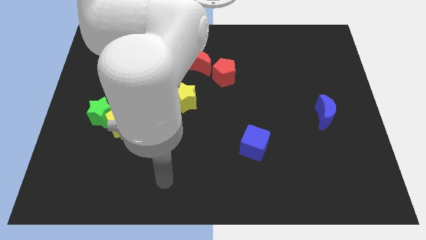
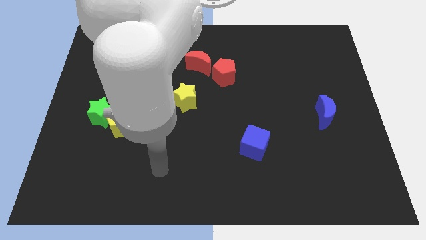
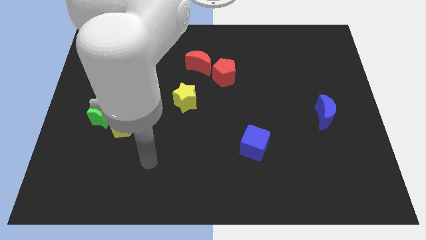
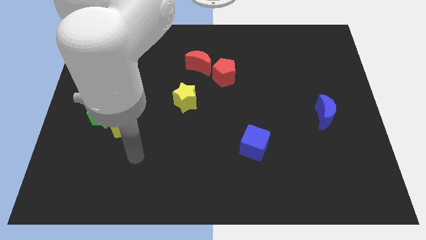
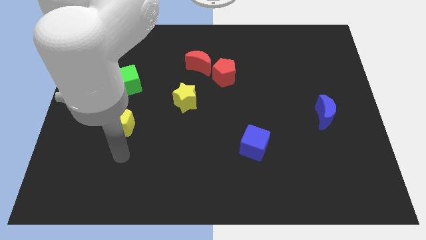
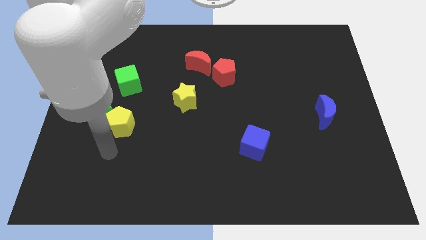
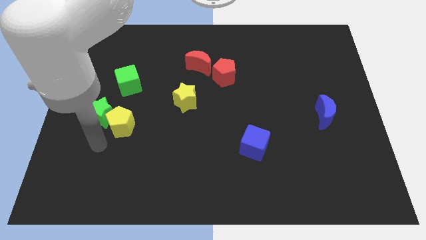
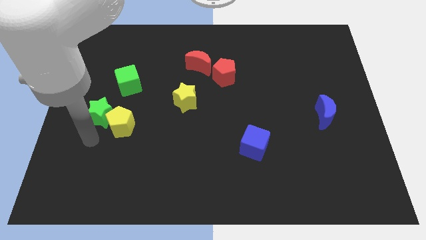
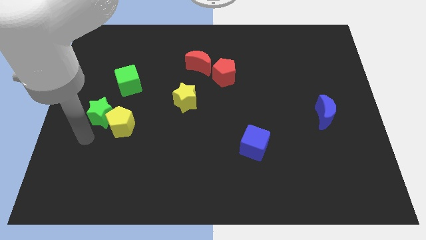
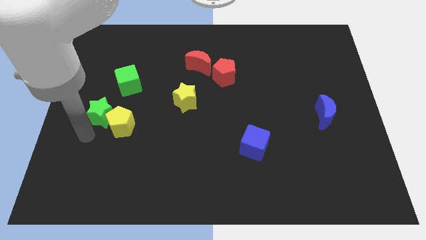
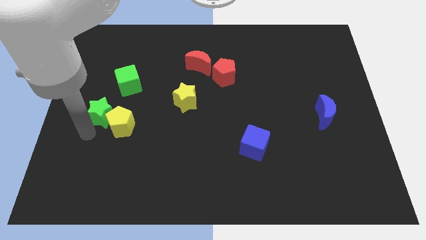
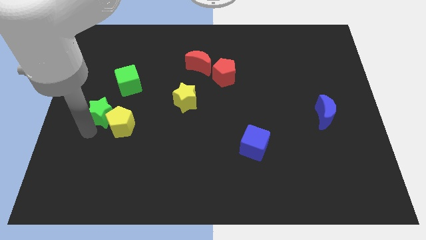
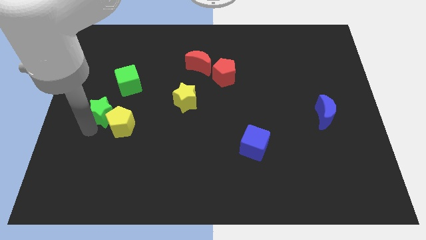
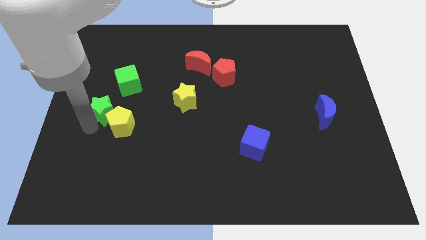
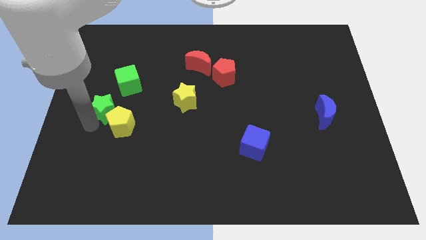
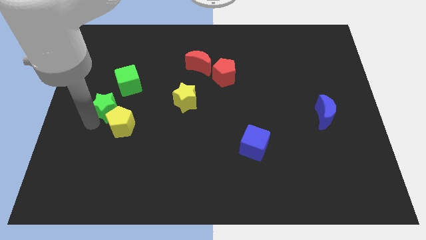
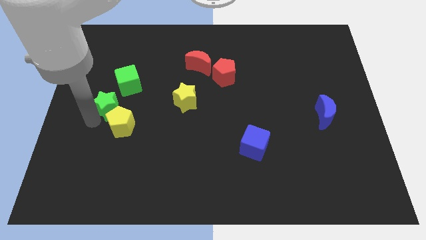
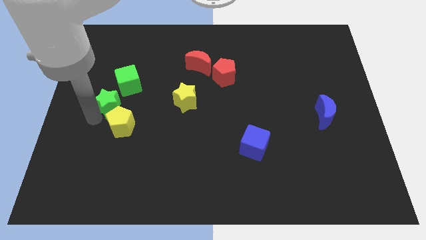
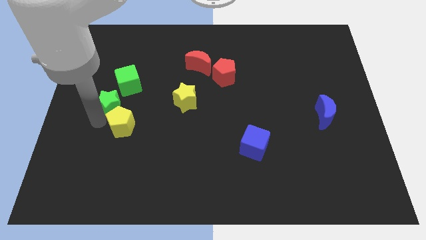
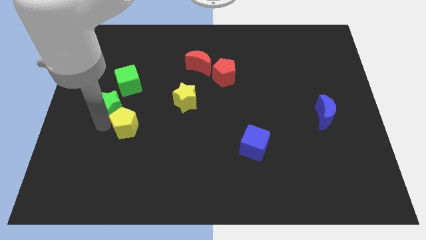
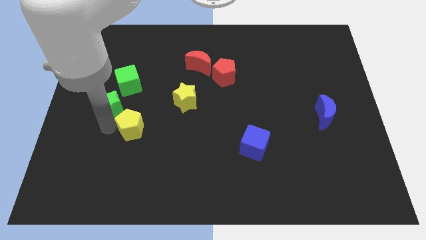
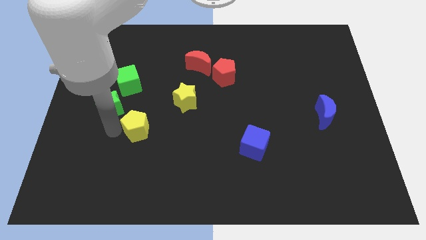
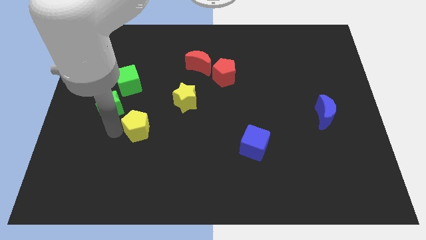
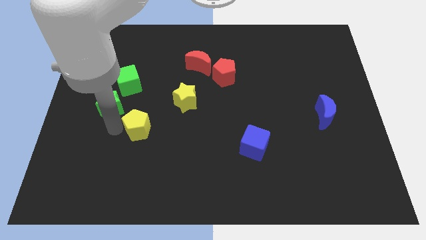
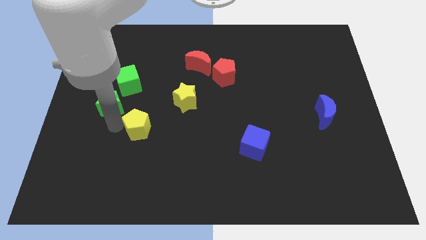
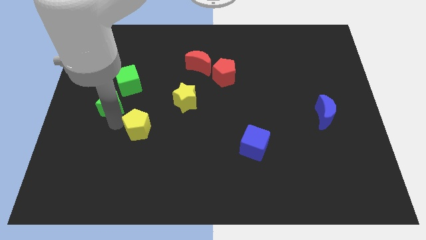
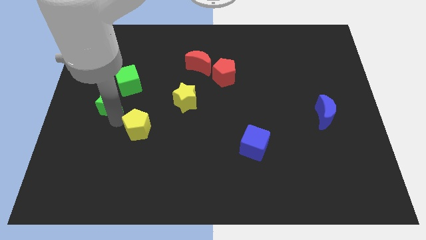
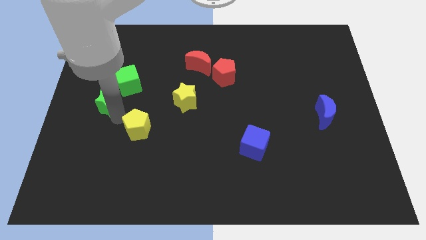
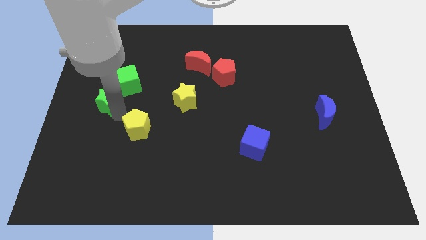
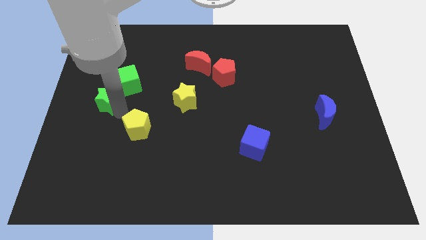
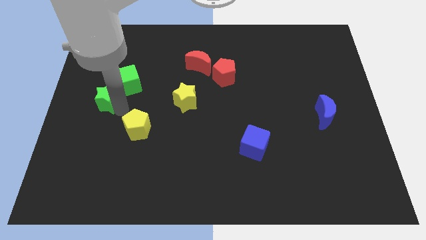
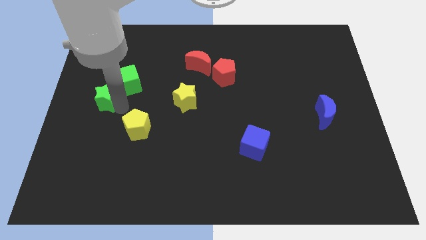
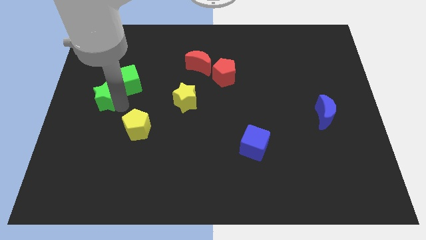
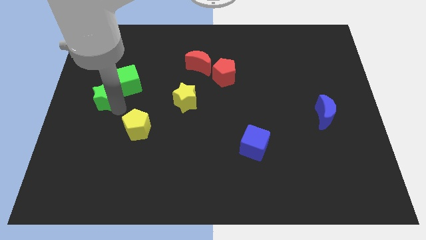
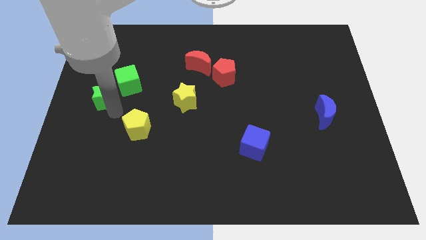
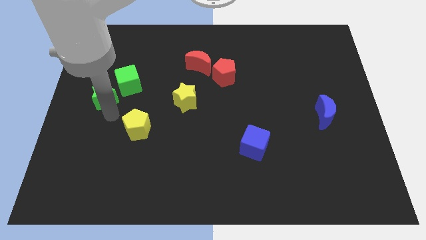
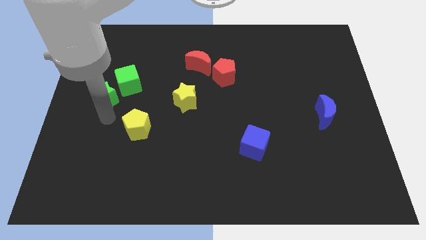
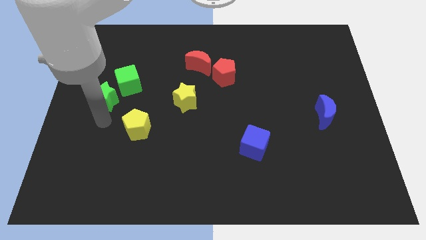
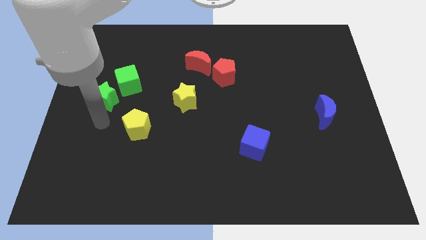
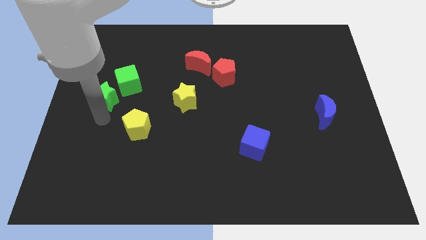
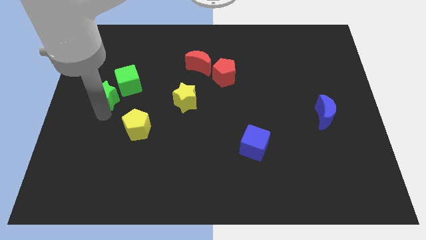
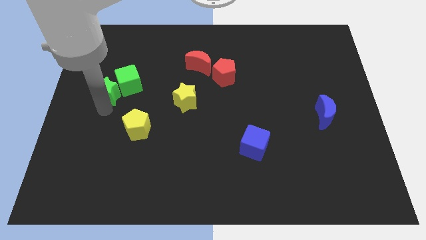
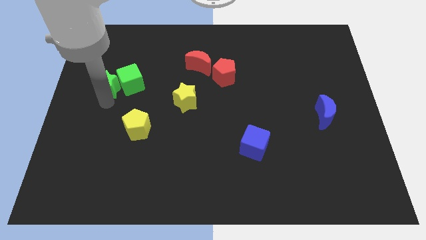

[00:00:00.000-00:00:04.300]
slightly slide the green star upwards

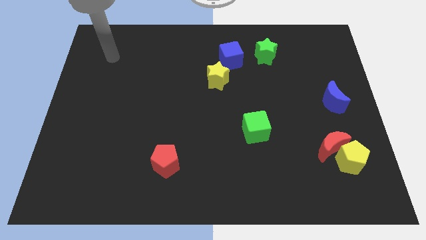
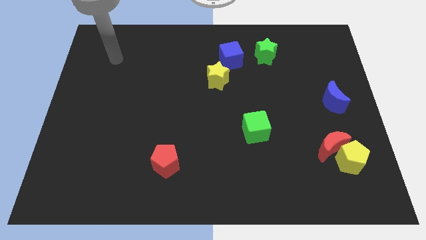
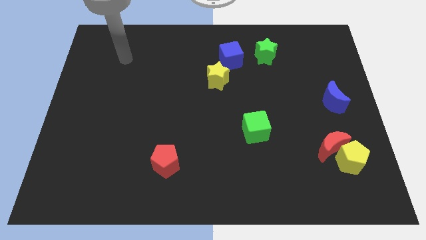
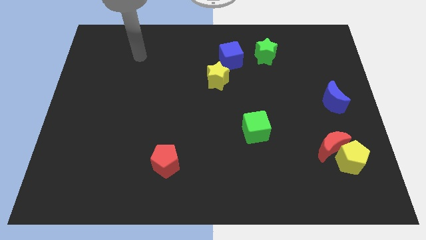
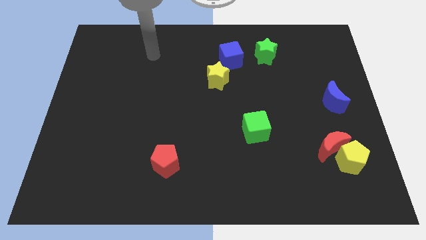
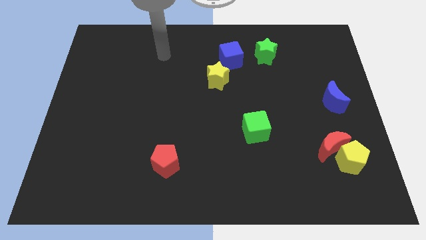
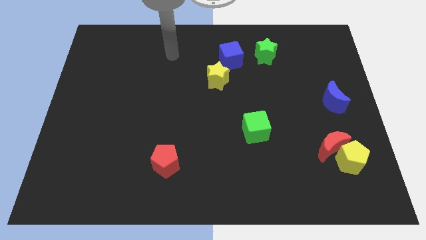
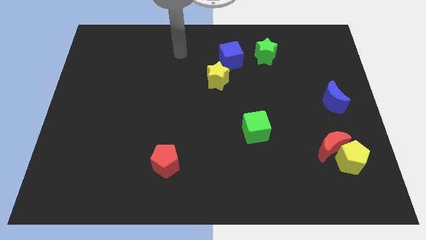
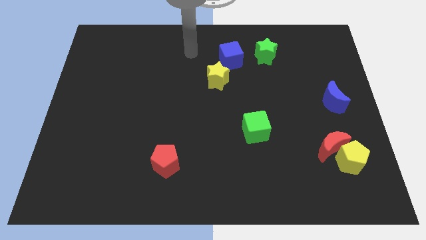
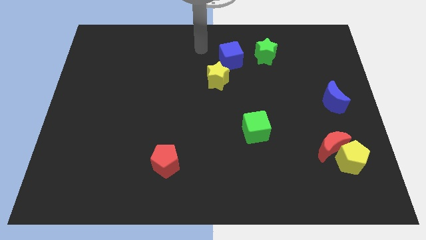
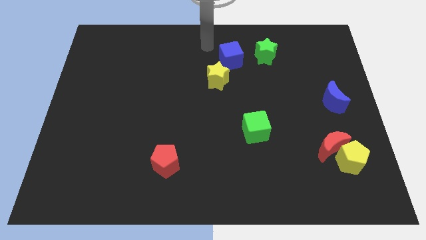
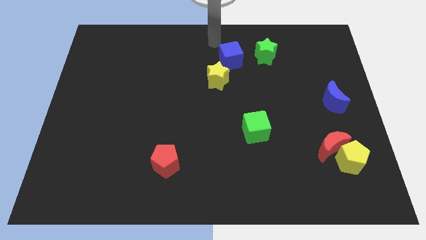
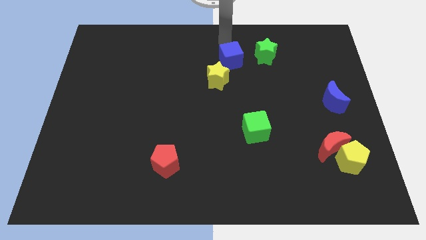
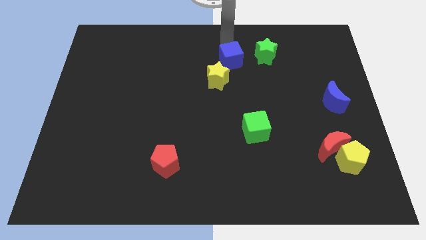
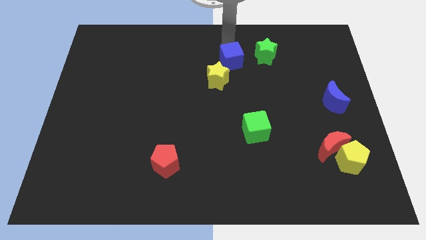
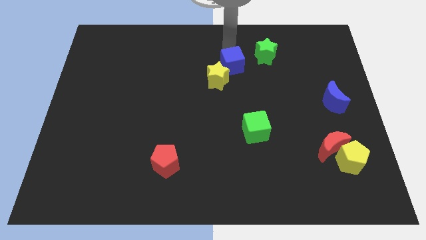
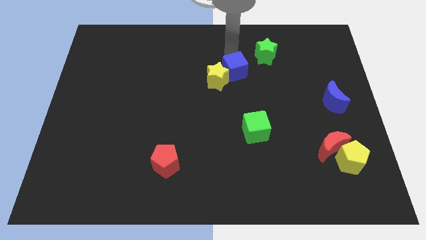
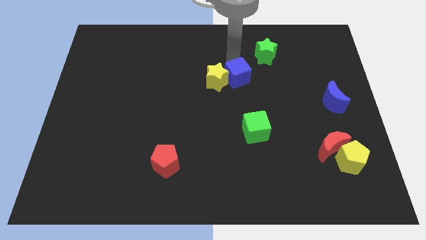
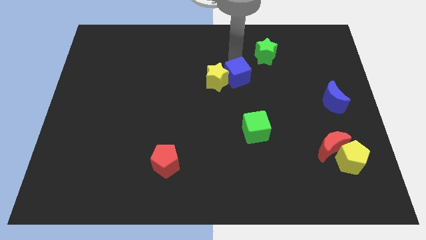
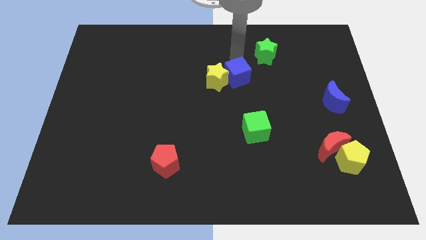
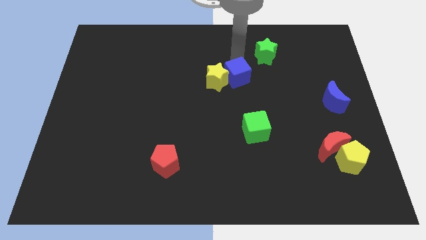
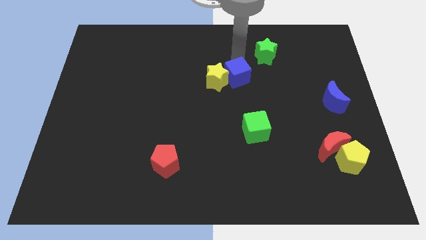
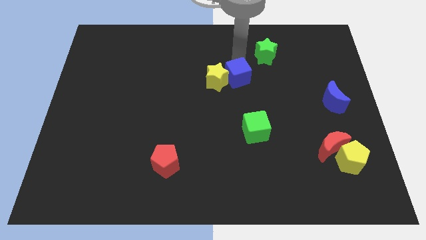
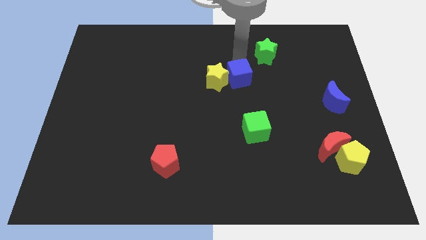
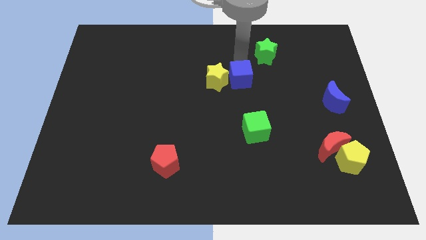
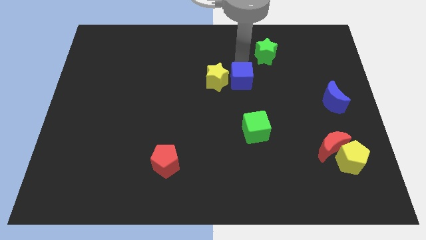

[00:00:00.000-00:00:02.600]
slightly move the blue cube downwards

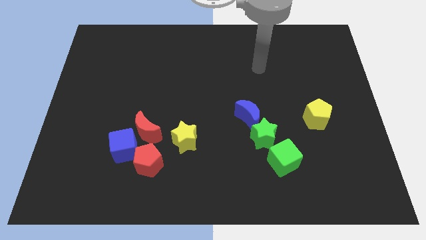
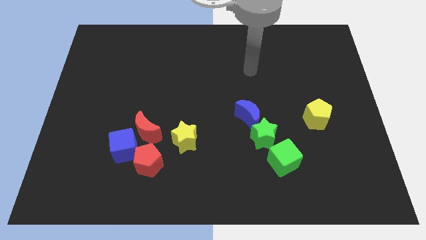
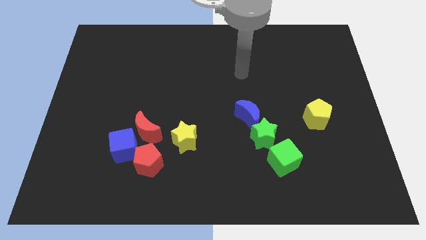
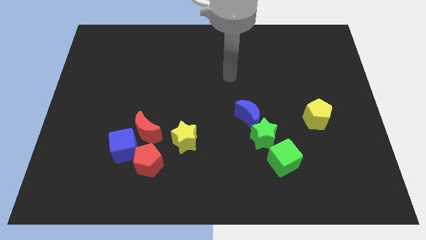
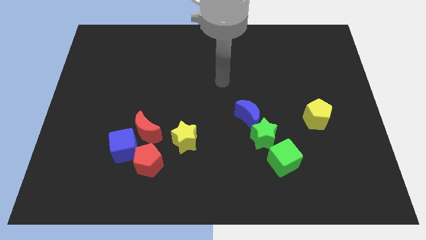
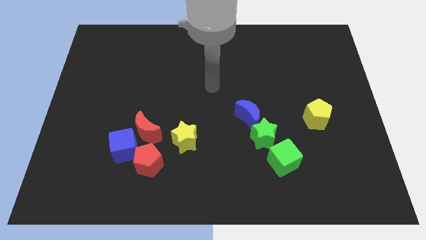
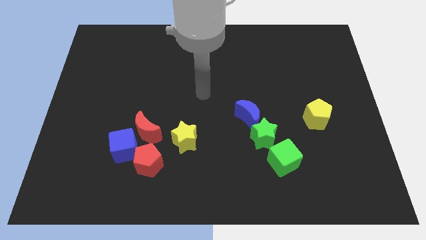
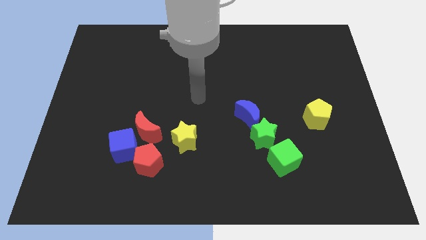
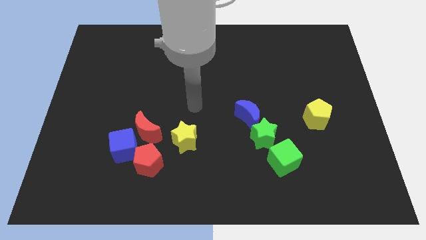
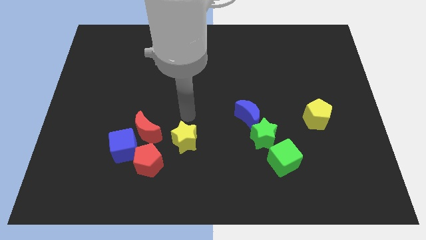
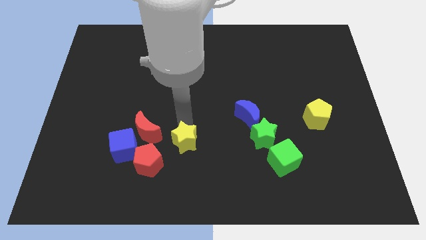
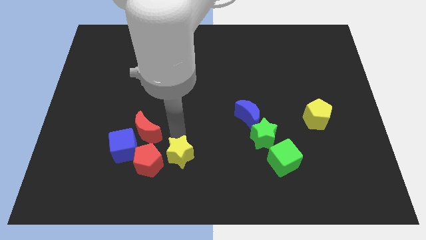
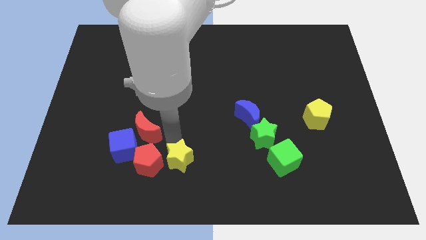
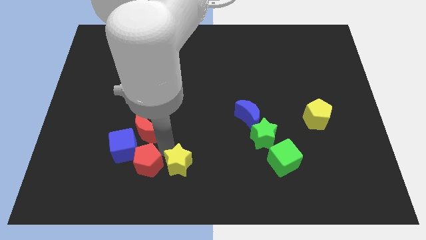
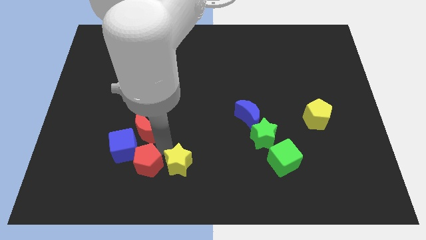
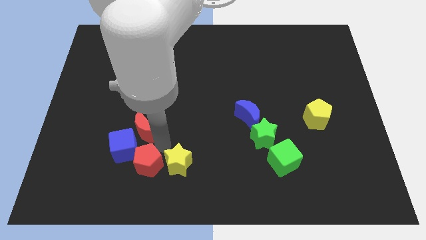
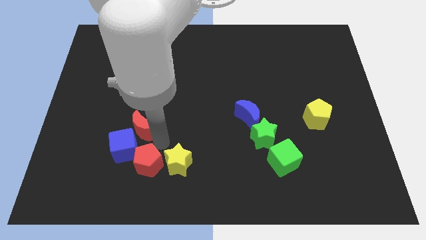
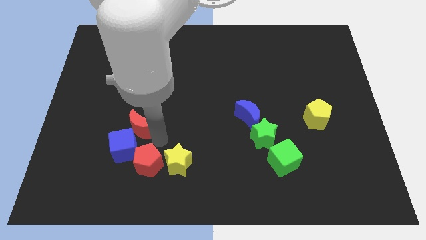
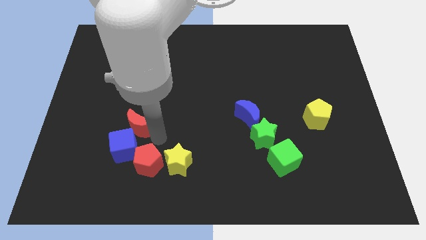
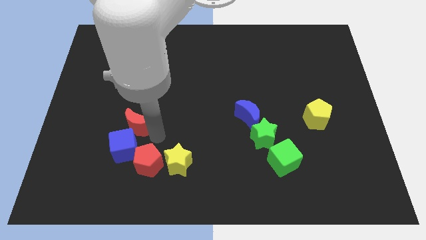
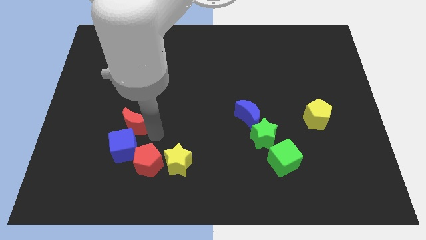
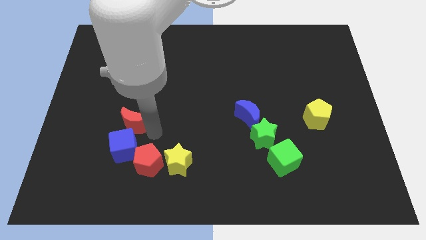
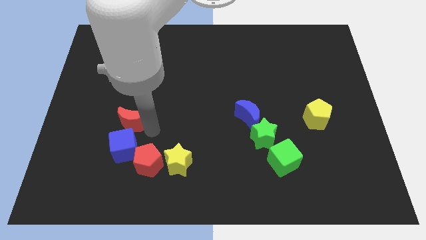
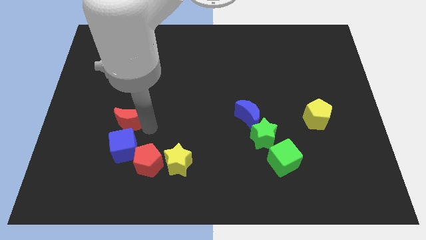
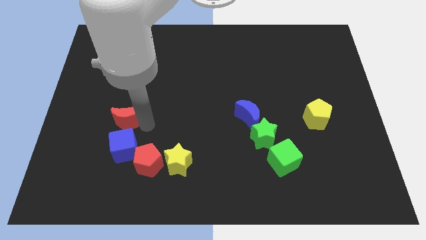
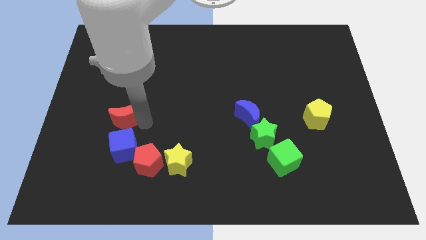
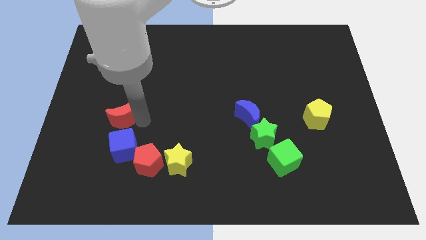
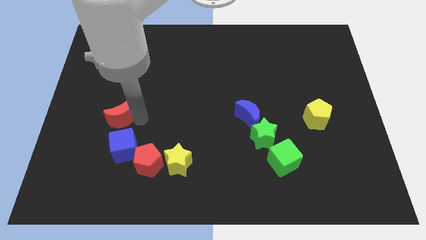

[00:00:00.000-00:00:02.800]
move the red moon a little bit diagonally up and left
